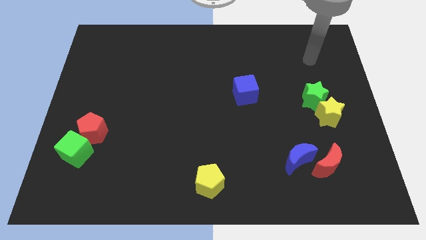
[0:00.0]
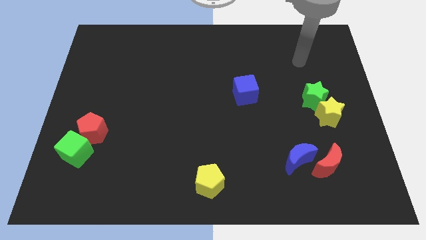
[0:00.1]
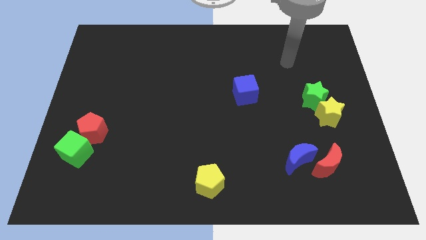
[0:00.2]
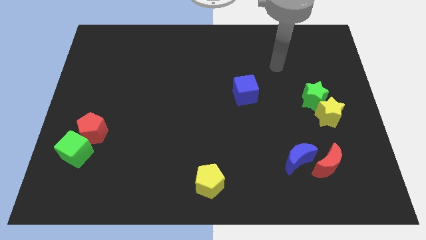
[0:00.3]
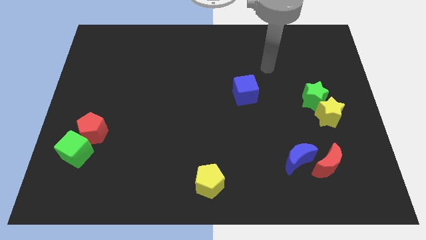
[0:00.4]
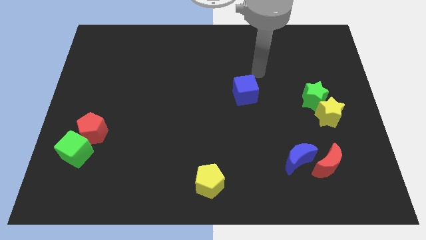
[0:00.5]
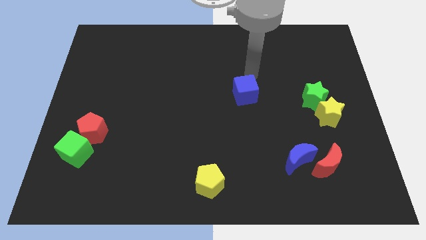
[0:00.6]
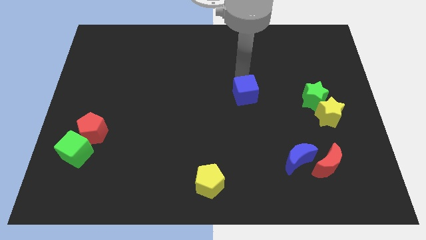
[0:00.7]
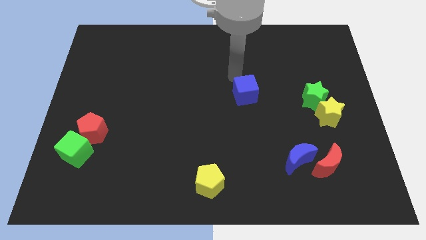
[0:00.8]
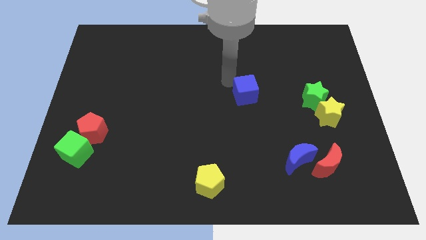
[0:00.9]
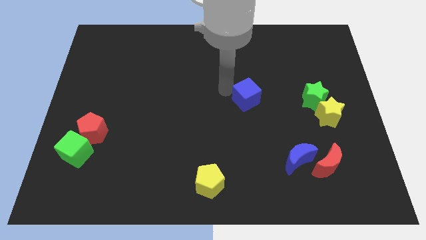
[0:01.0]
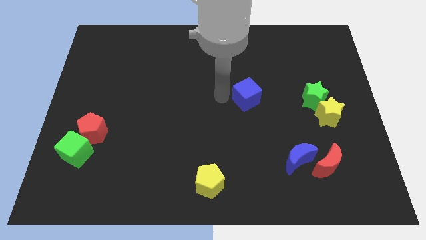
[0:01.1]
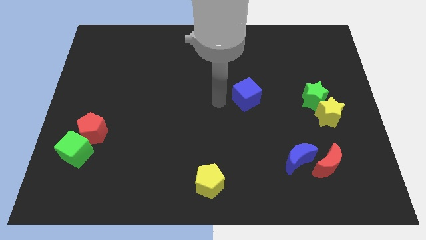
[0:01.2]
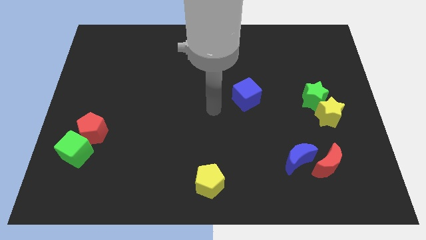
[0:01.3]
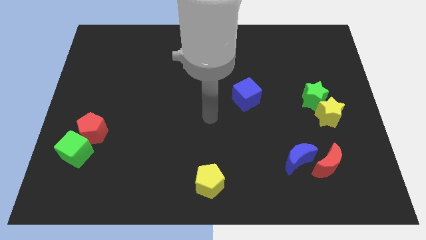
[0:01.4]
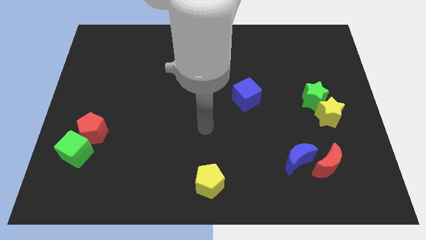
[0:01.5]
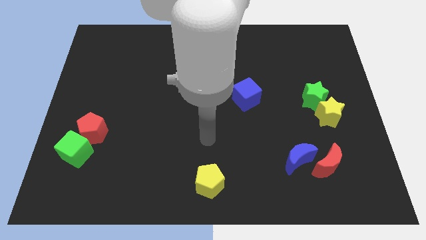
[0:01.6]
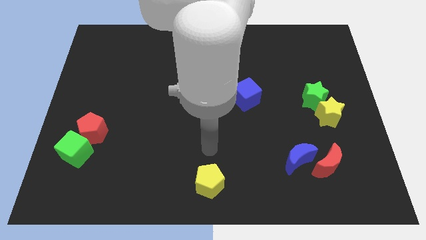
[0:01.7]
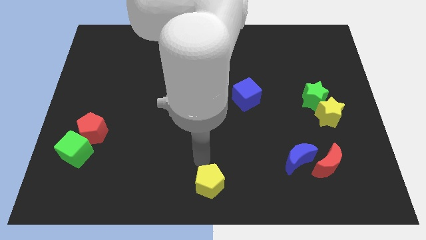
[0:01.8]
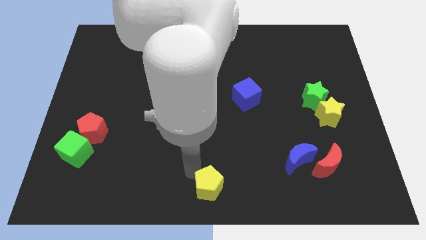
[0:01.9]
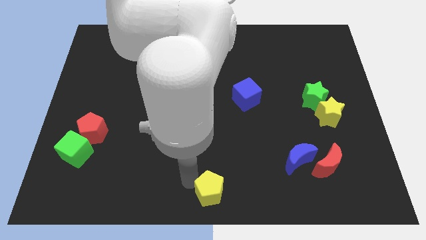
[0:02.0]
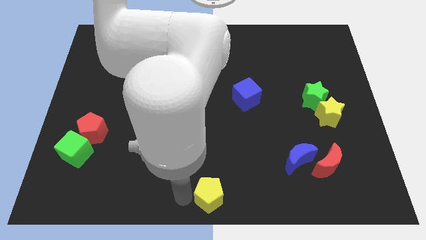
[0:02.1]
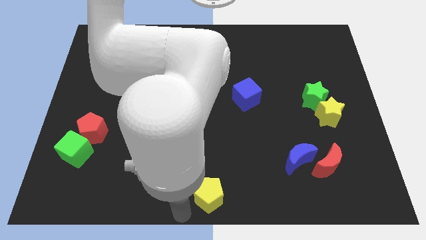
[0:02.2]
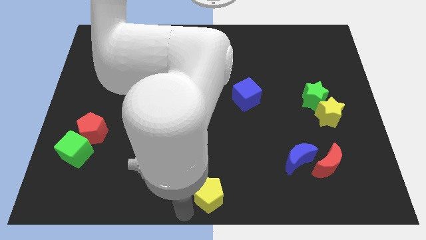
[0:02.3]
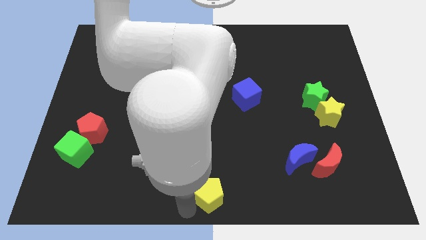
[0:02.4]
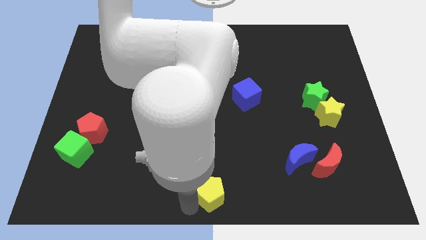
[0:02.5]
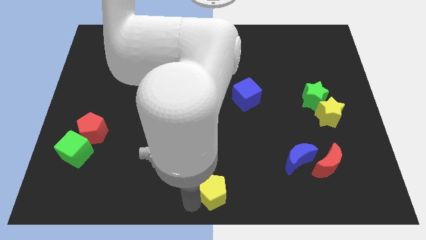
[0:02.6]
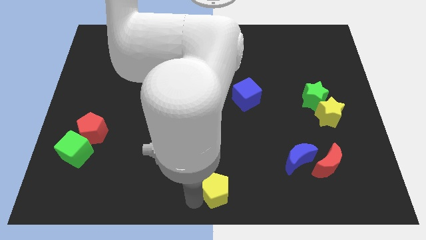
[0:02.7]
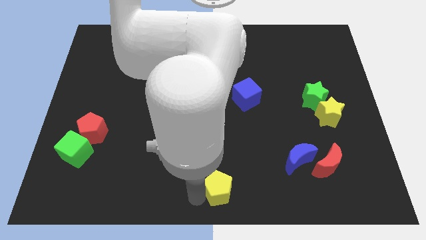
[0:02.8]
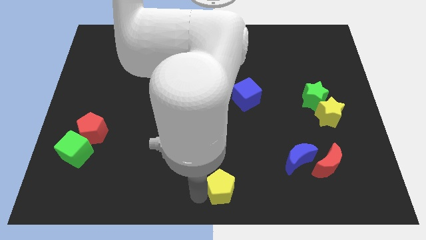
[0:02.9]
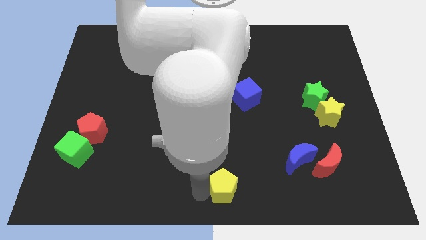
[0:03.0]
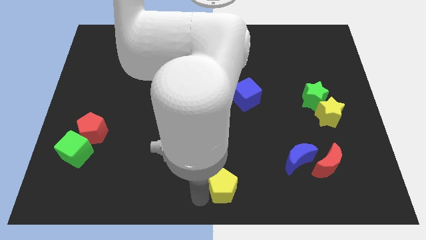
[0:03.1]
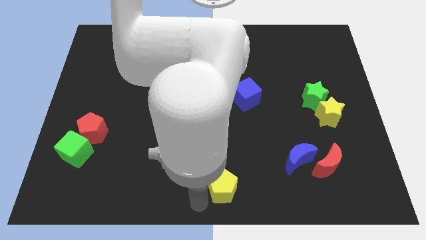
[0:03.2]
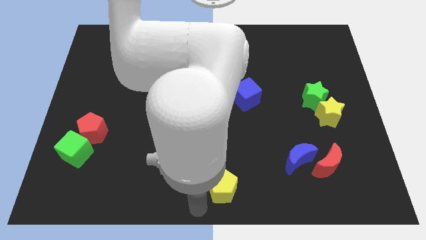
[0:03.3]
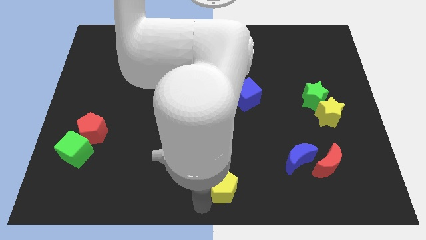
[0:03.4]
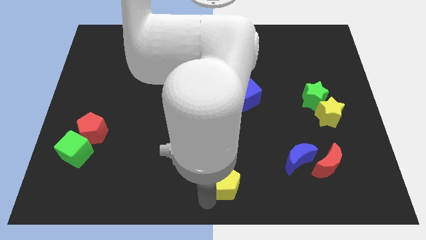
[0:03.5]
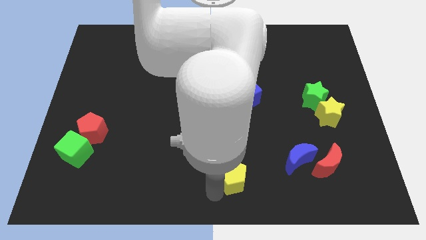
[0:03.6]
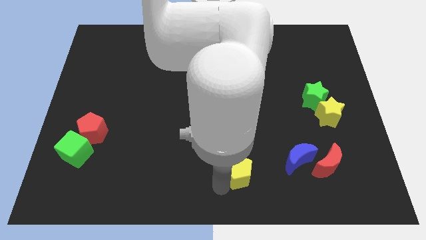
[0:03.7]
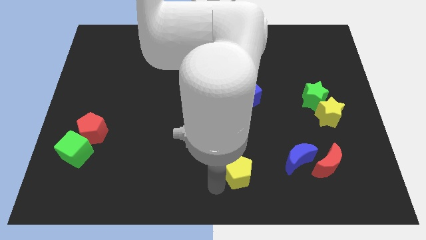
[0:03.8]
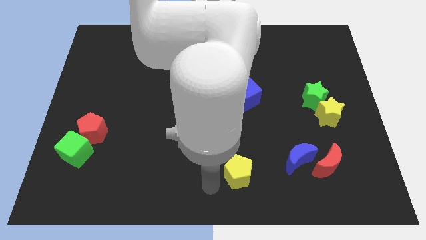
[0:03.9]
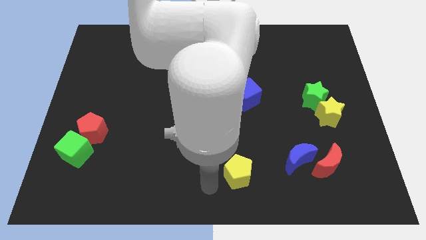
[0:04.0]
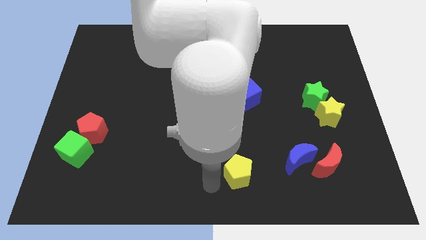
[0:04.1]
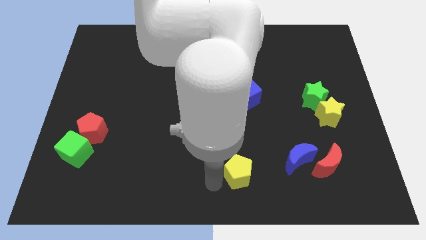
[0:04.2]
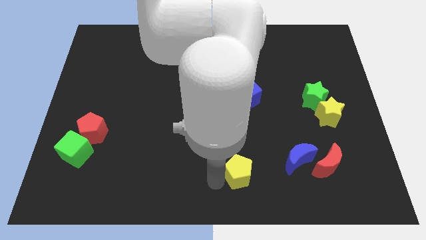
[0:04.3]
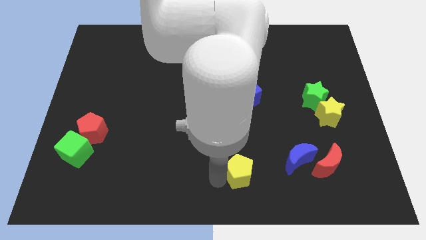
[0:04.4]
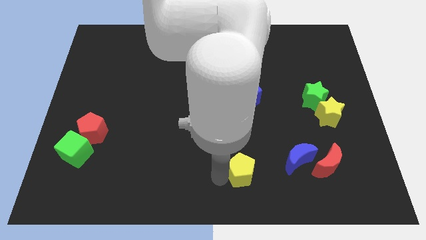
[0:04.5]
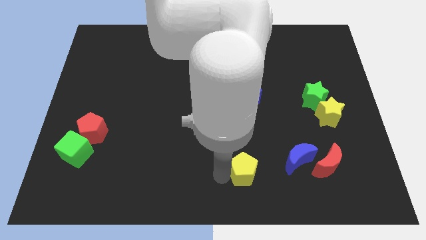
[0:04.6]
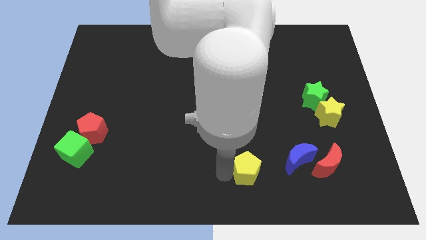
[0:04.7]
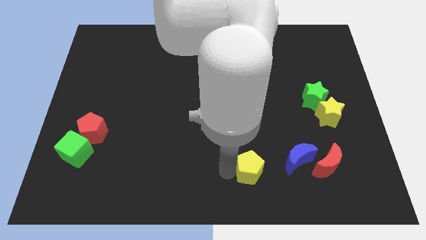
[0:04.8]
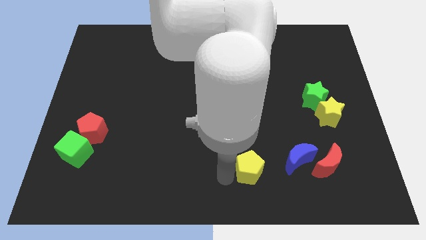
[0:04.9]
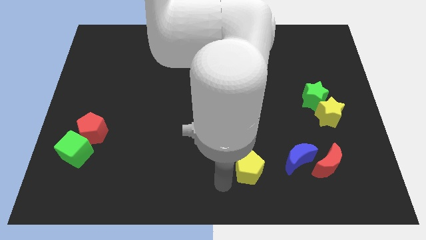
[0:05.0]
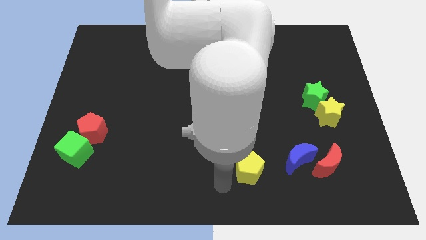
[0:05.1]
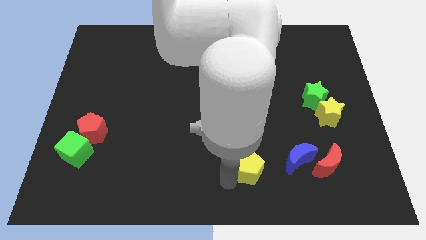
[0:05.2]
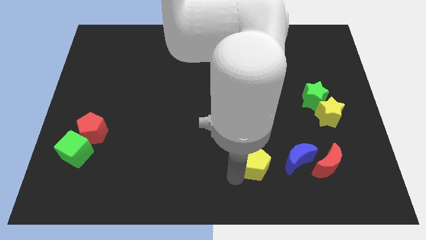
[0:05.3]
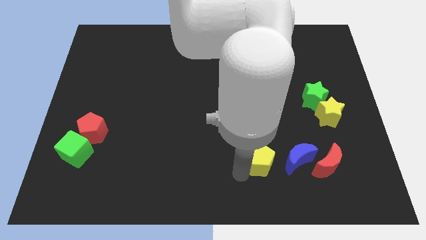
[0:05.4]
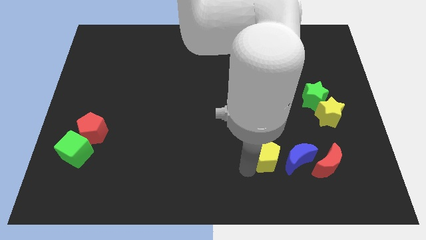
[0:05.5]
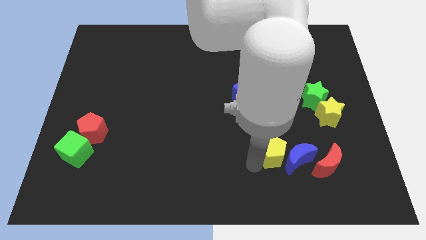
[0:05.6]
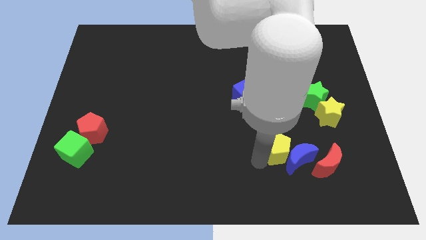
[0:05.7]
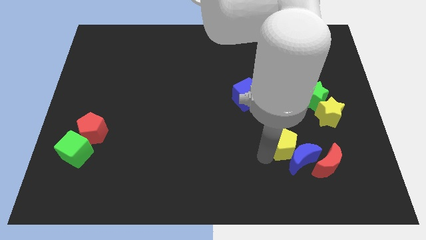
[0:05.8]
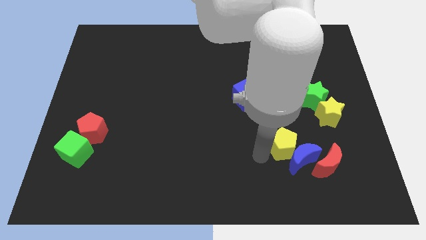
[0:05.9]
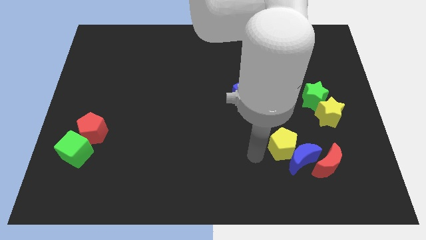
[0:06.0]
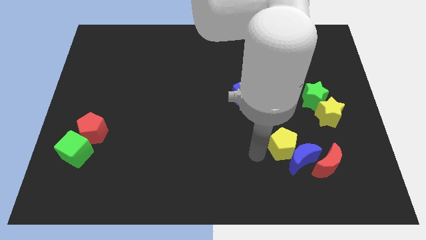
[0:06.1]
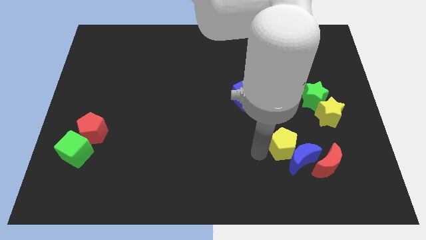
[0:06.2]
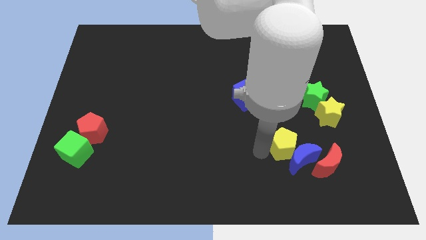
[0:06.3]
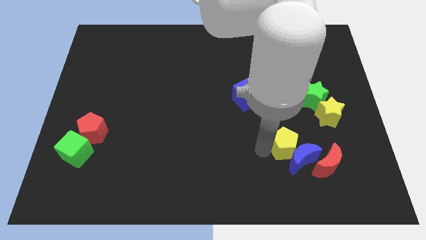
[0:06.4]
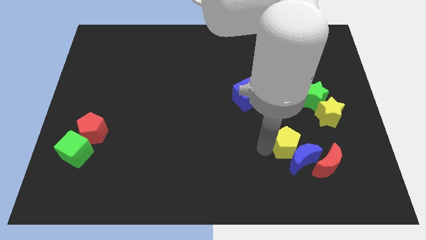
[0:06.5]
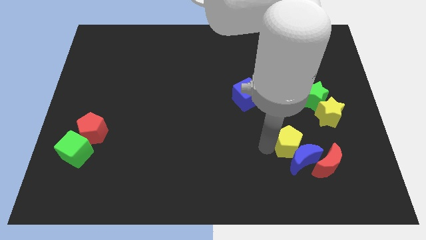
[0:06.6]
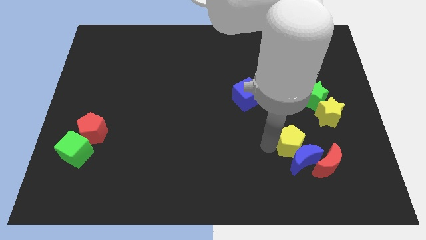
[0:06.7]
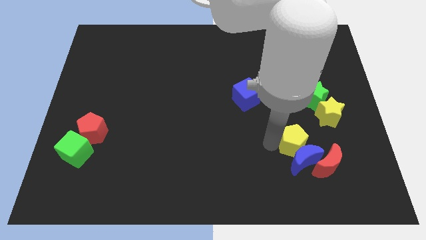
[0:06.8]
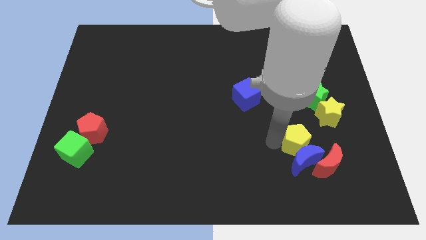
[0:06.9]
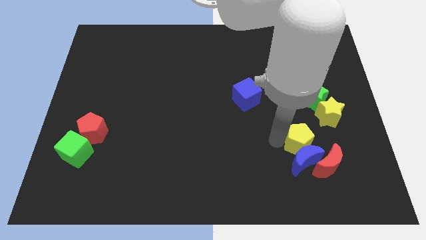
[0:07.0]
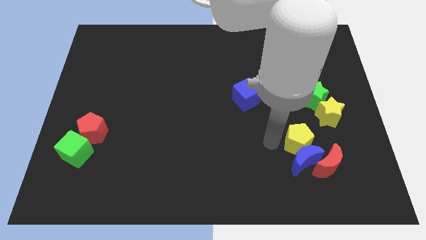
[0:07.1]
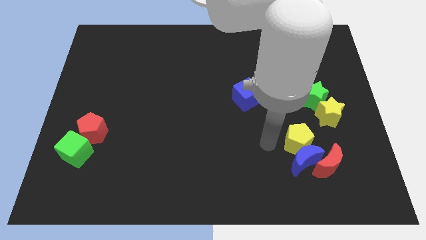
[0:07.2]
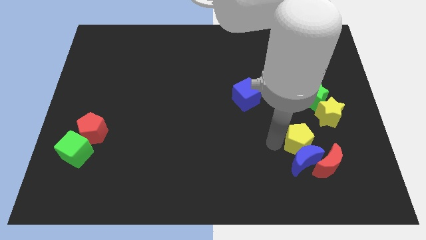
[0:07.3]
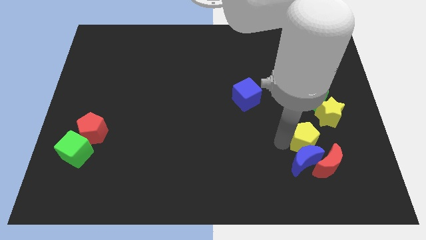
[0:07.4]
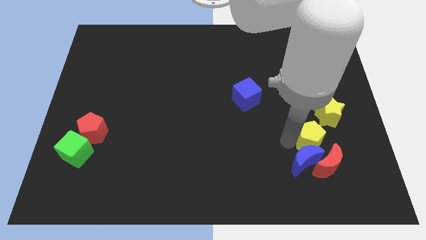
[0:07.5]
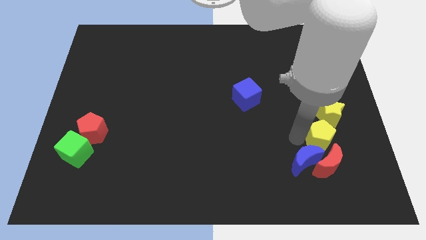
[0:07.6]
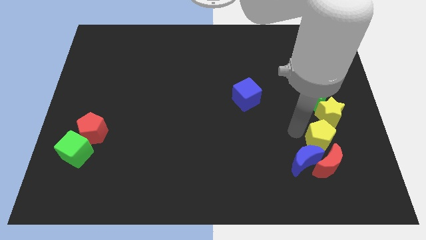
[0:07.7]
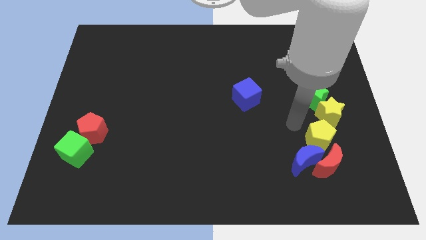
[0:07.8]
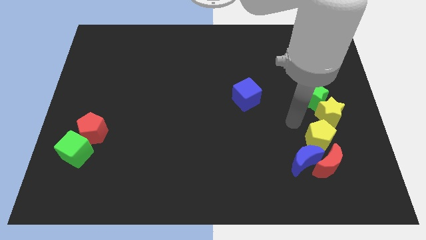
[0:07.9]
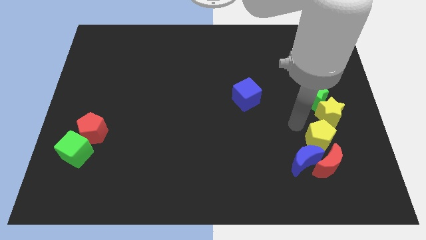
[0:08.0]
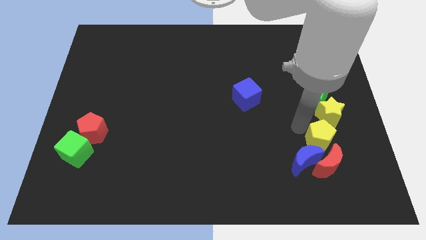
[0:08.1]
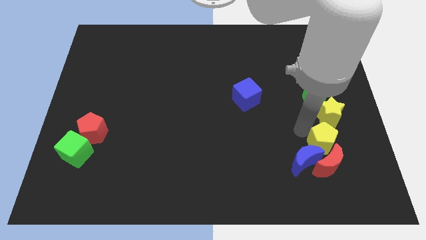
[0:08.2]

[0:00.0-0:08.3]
put the yellow pentagon to the right side of the blue moon
